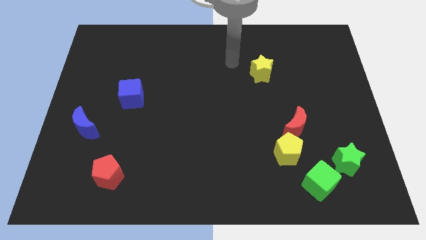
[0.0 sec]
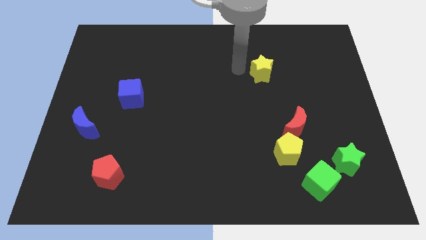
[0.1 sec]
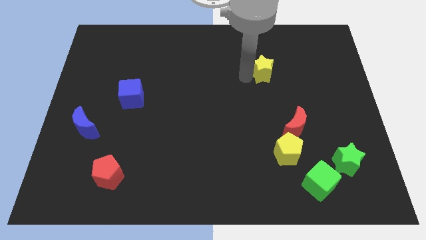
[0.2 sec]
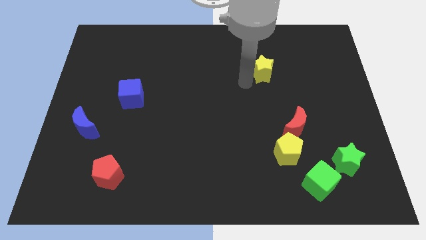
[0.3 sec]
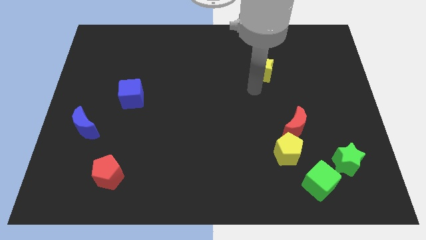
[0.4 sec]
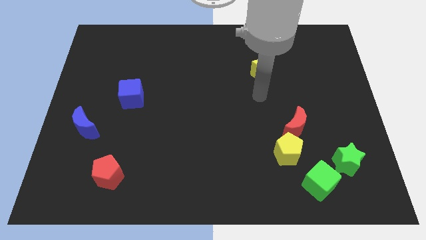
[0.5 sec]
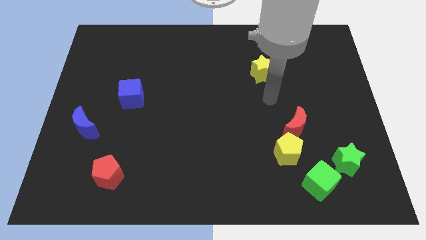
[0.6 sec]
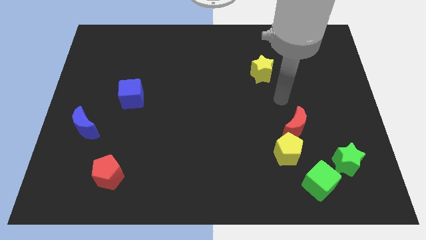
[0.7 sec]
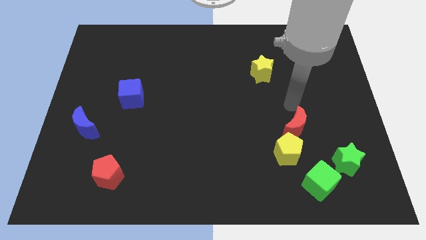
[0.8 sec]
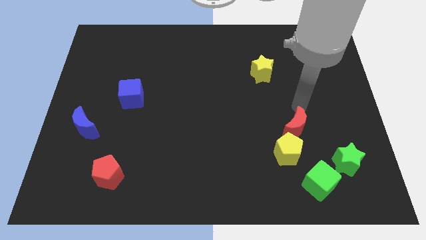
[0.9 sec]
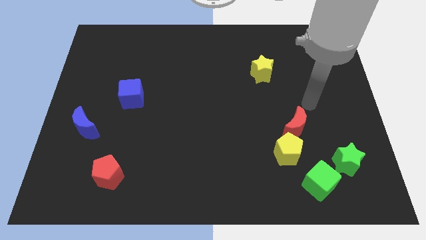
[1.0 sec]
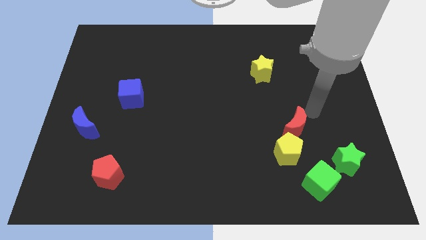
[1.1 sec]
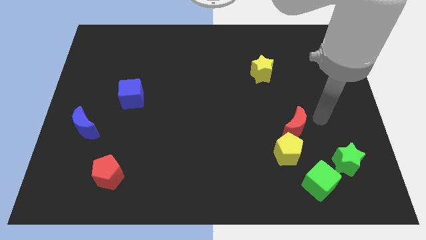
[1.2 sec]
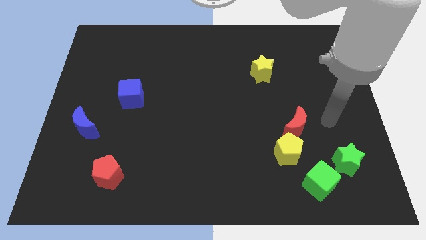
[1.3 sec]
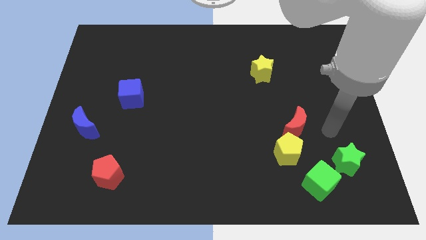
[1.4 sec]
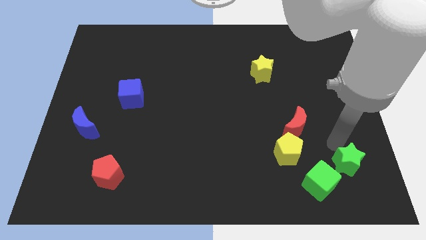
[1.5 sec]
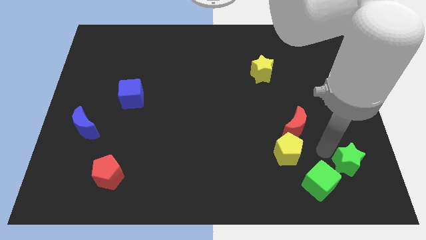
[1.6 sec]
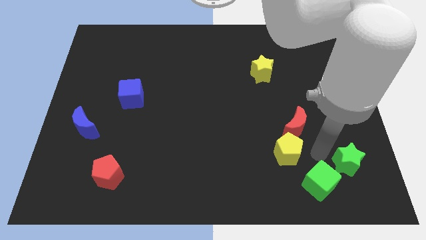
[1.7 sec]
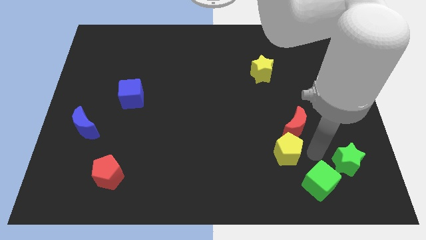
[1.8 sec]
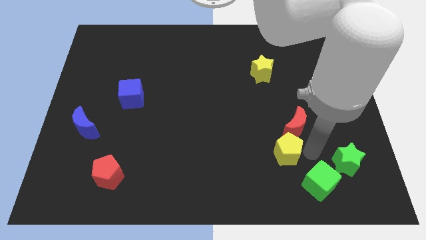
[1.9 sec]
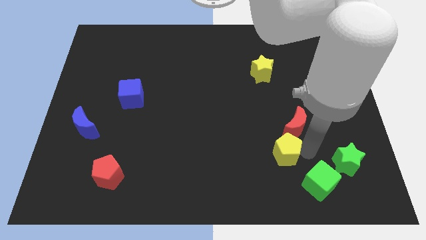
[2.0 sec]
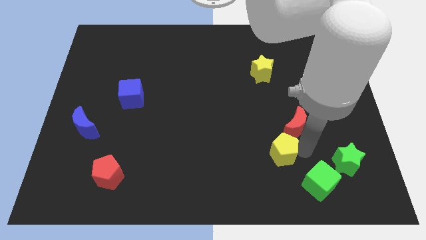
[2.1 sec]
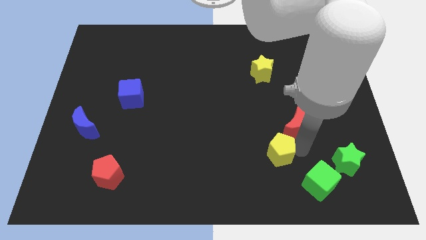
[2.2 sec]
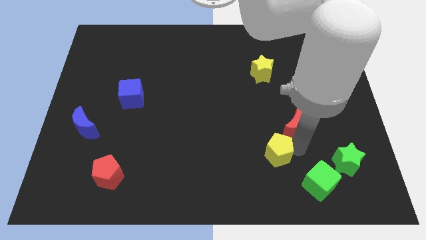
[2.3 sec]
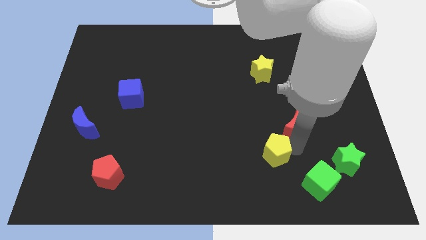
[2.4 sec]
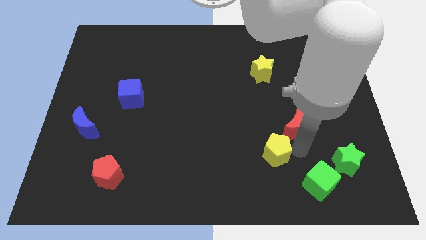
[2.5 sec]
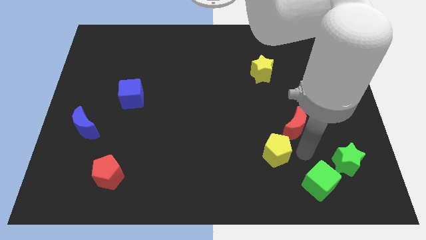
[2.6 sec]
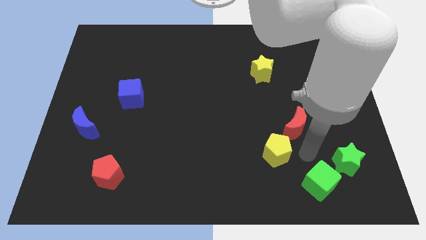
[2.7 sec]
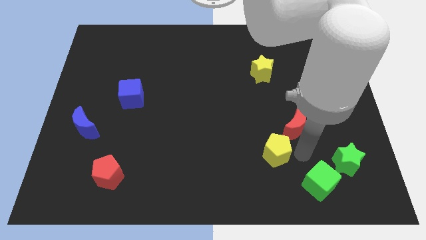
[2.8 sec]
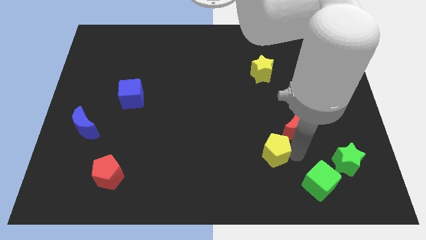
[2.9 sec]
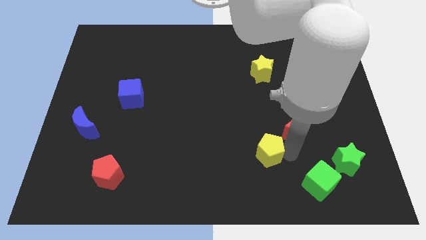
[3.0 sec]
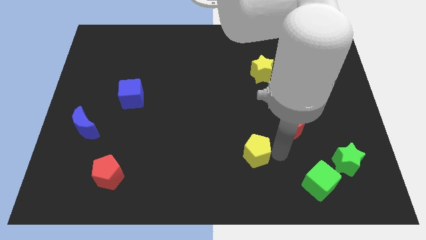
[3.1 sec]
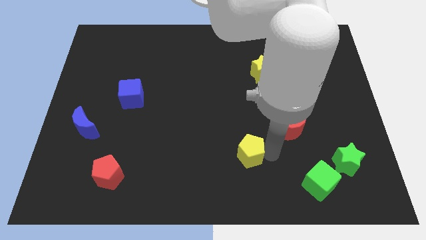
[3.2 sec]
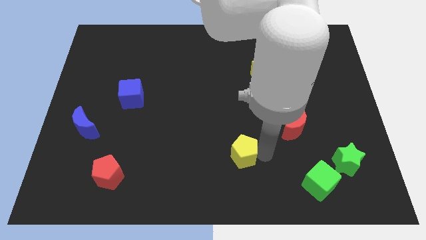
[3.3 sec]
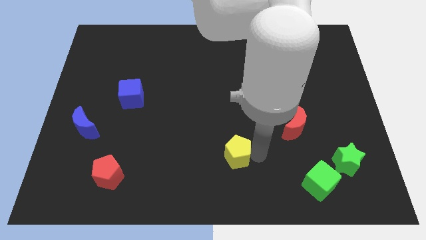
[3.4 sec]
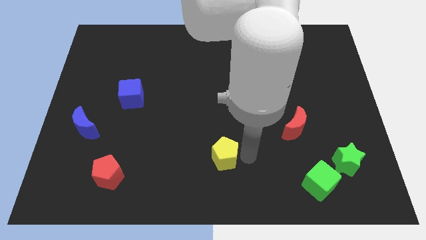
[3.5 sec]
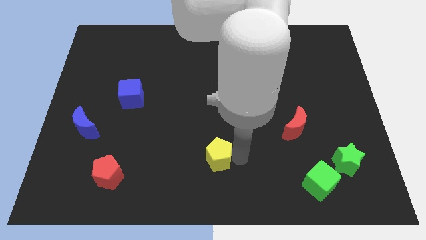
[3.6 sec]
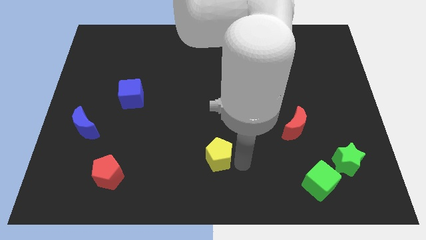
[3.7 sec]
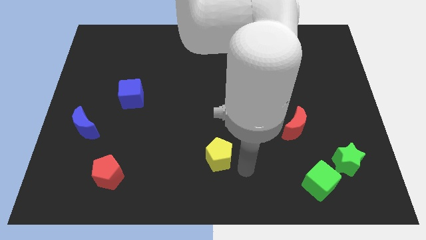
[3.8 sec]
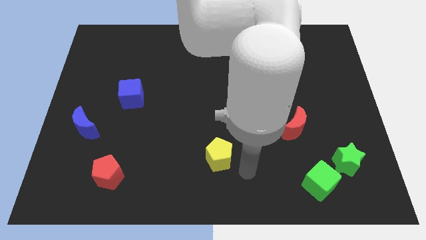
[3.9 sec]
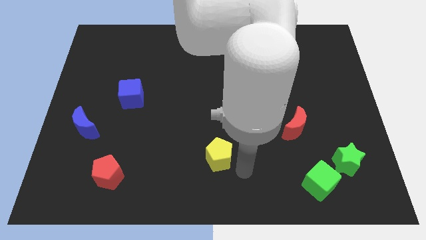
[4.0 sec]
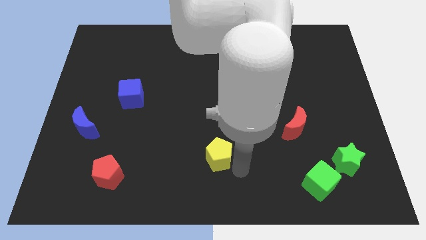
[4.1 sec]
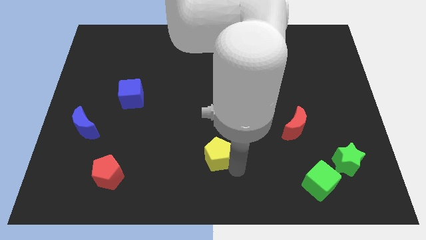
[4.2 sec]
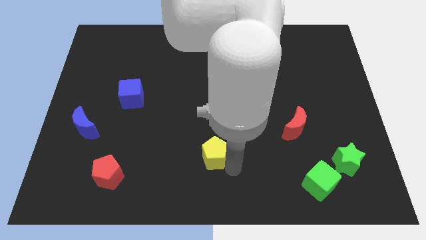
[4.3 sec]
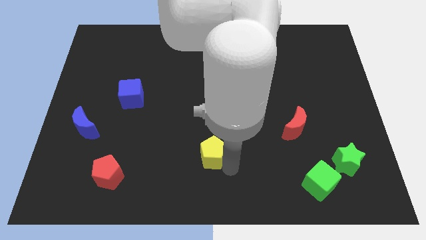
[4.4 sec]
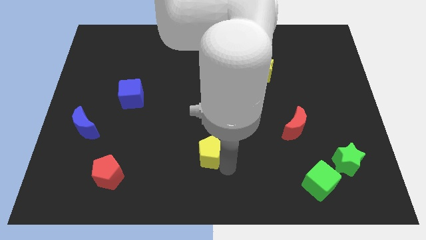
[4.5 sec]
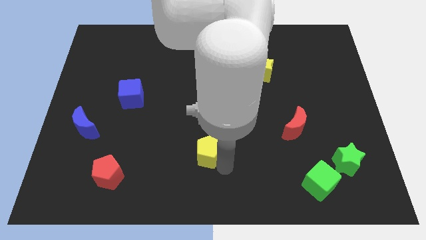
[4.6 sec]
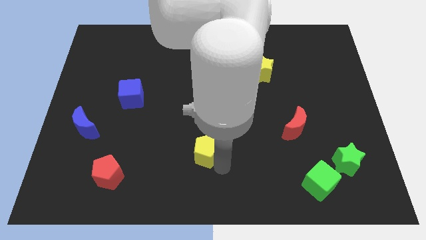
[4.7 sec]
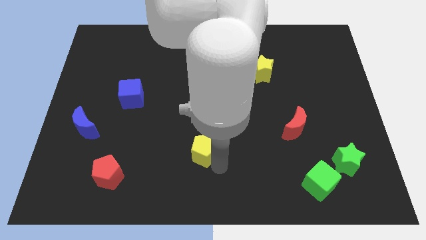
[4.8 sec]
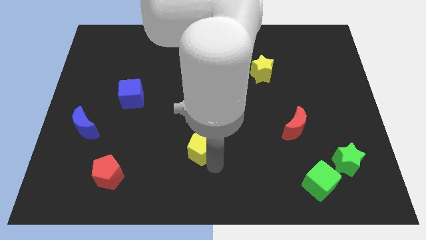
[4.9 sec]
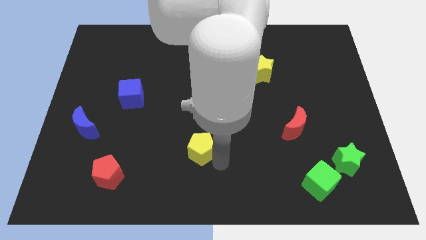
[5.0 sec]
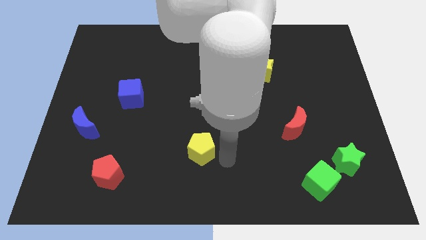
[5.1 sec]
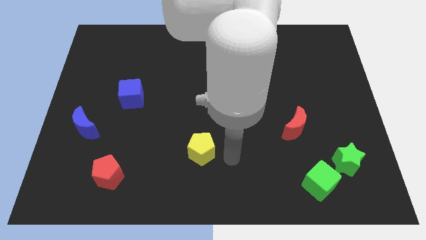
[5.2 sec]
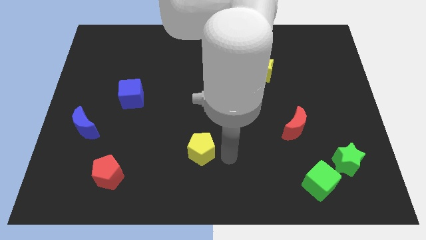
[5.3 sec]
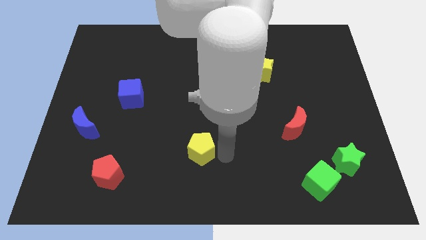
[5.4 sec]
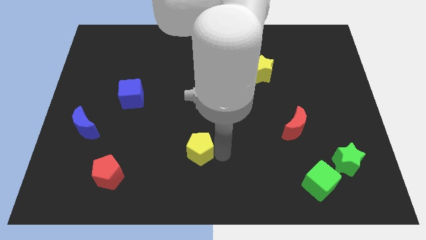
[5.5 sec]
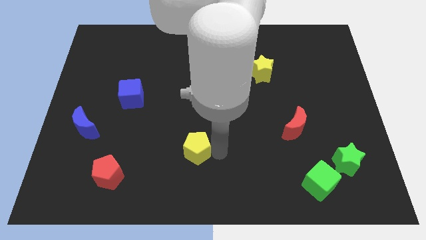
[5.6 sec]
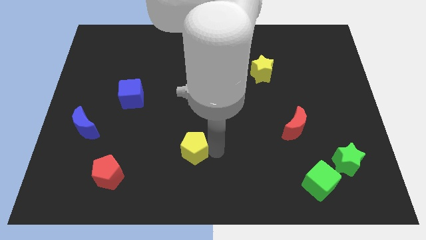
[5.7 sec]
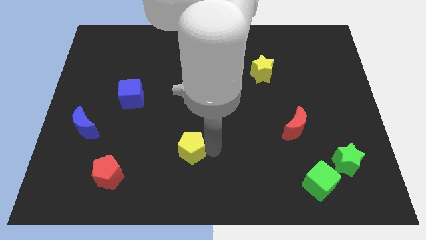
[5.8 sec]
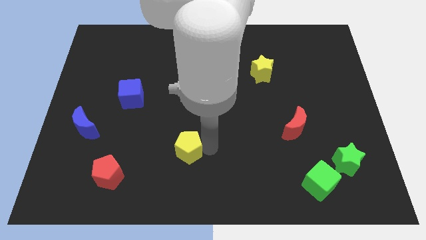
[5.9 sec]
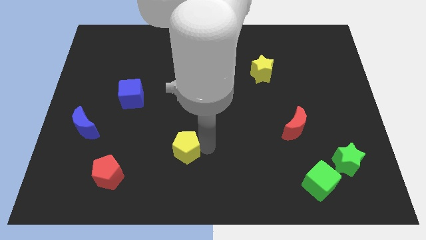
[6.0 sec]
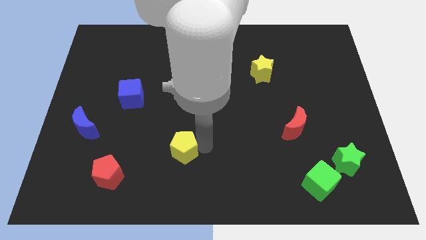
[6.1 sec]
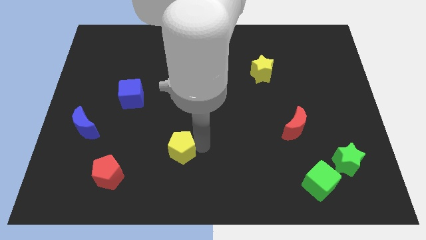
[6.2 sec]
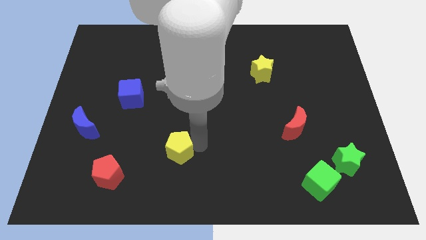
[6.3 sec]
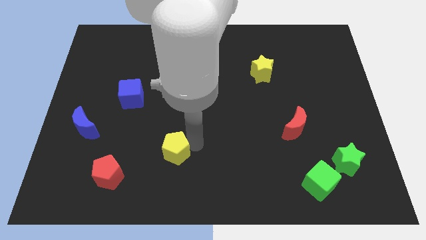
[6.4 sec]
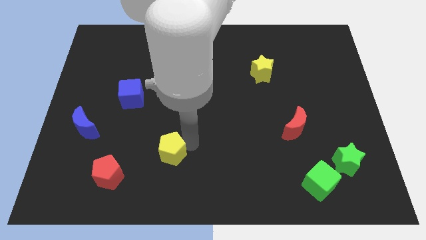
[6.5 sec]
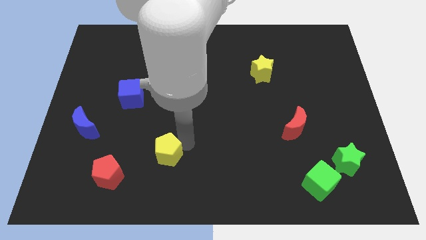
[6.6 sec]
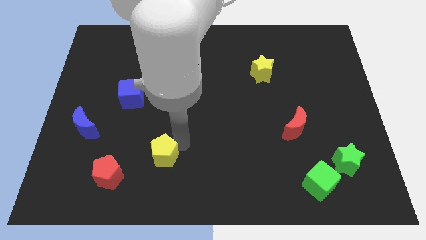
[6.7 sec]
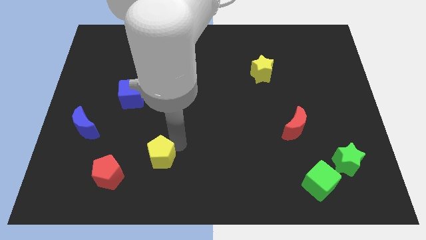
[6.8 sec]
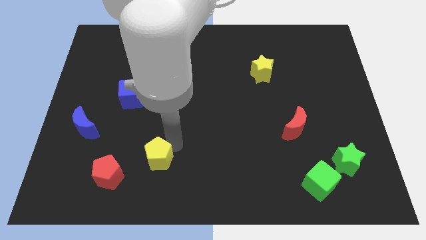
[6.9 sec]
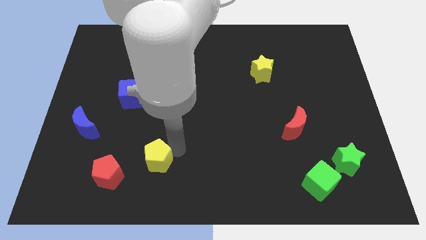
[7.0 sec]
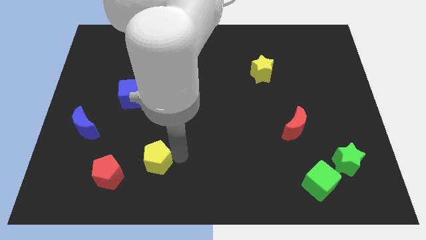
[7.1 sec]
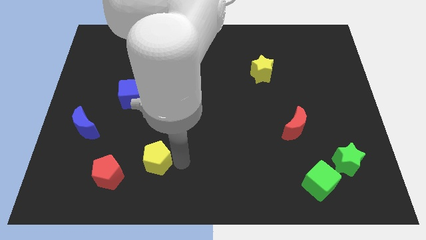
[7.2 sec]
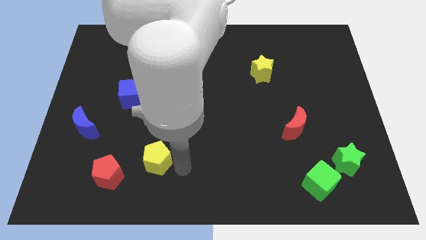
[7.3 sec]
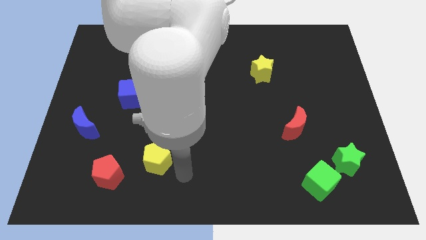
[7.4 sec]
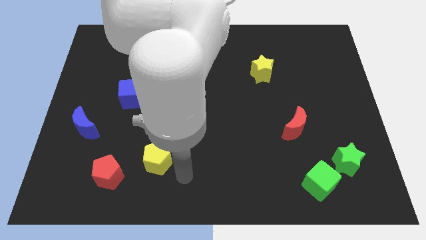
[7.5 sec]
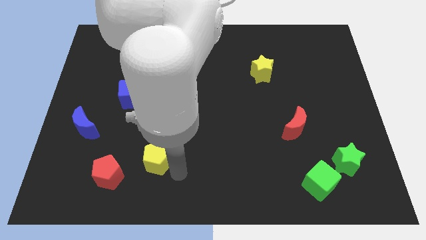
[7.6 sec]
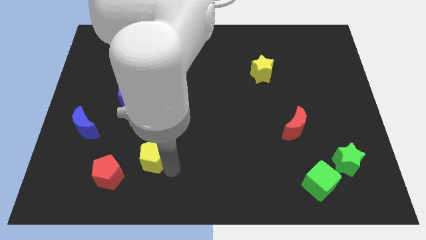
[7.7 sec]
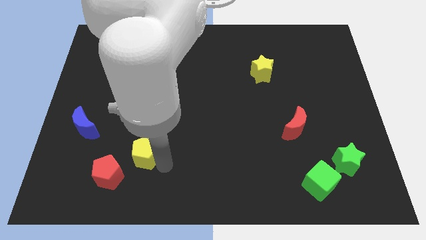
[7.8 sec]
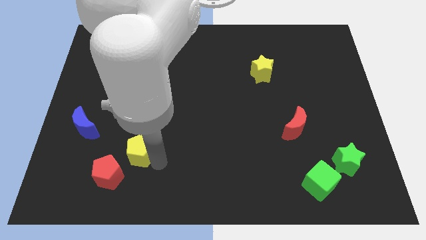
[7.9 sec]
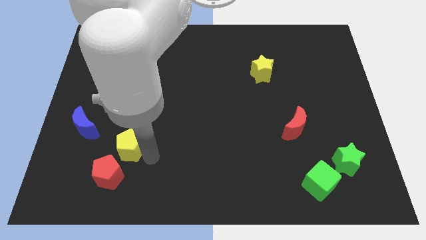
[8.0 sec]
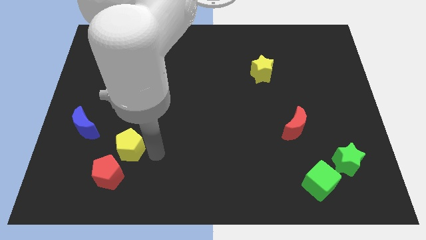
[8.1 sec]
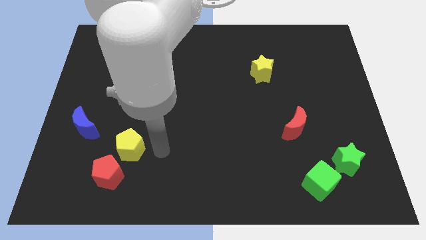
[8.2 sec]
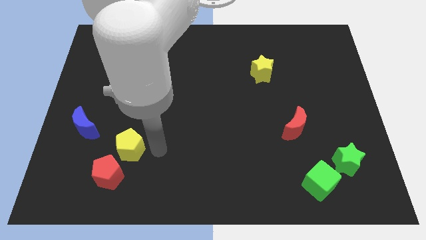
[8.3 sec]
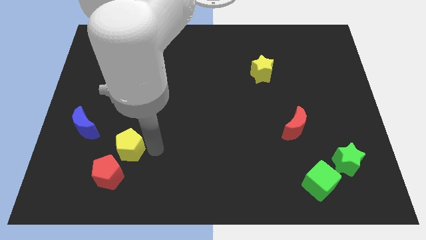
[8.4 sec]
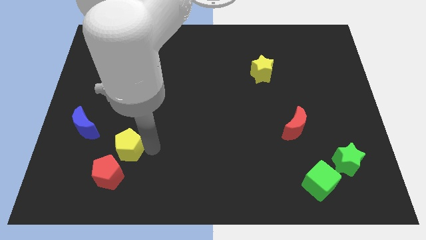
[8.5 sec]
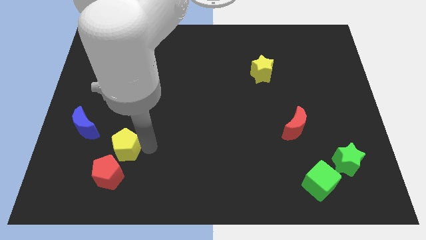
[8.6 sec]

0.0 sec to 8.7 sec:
slide the yellow pentagon to the bottom right of the blue moon
